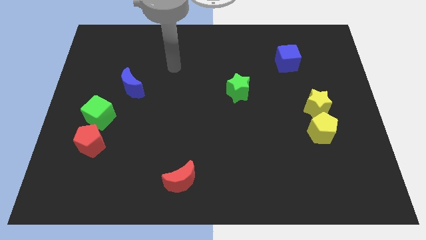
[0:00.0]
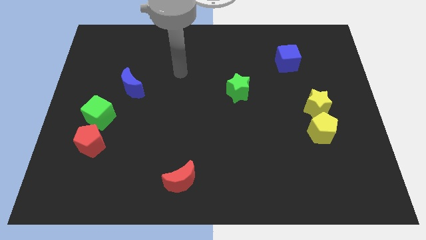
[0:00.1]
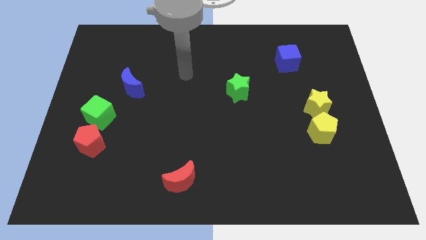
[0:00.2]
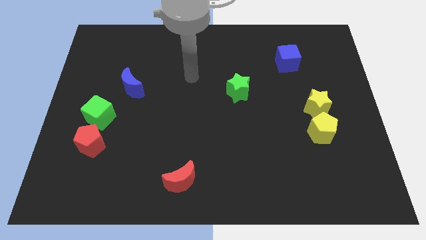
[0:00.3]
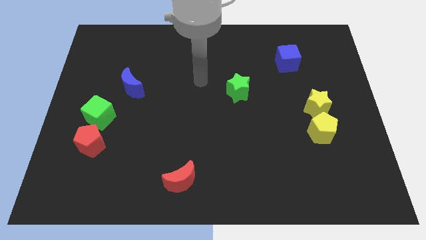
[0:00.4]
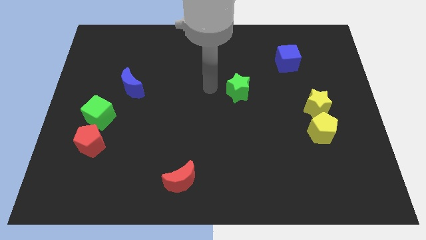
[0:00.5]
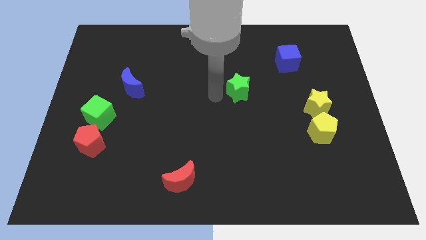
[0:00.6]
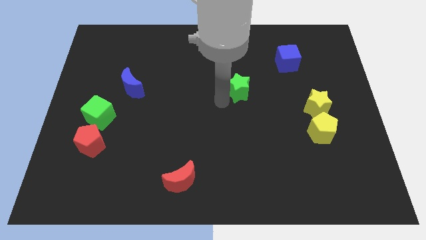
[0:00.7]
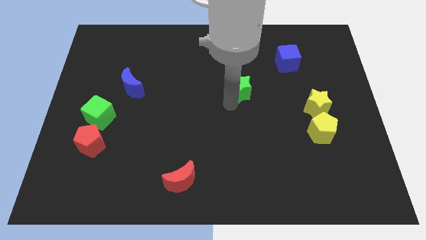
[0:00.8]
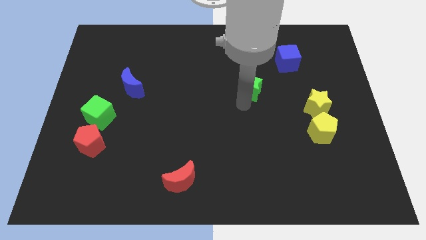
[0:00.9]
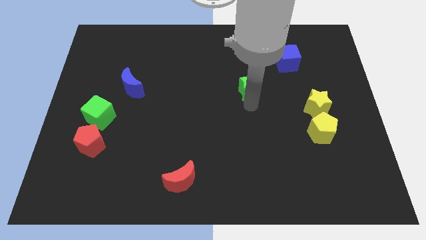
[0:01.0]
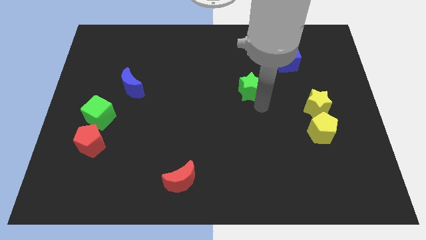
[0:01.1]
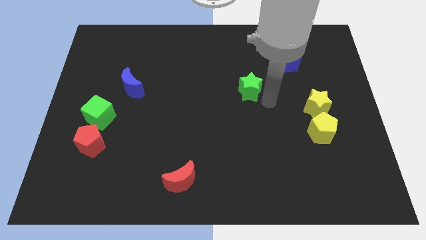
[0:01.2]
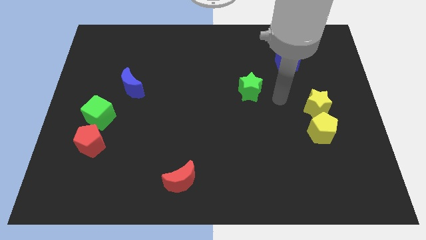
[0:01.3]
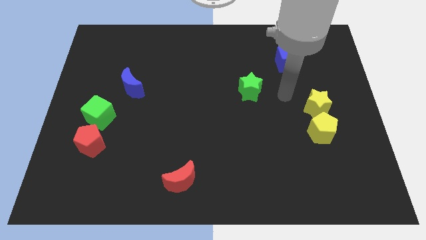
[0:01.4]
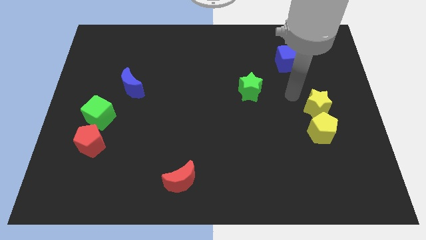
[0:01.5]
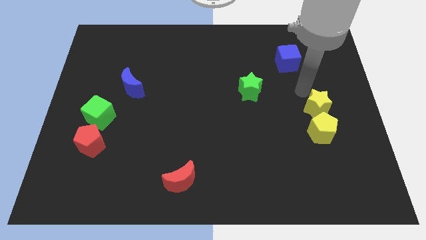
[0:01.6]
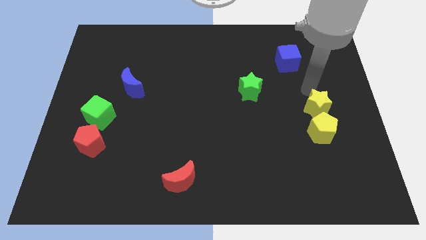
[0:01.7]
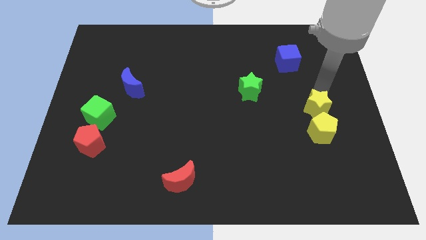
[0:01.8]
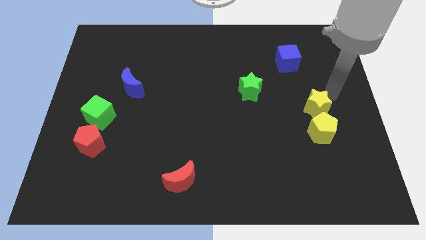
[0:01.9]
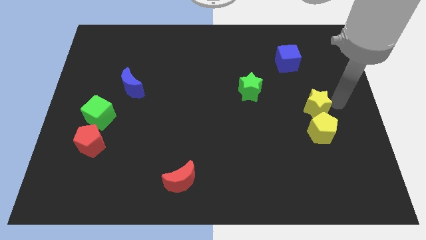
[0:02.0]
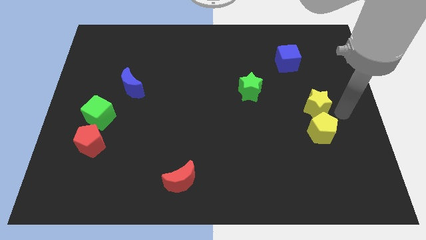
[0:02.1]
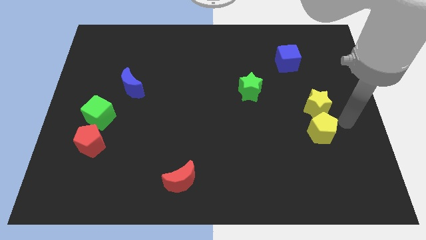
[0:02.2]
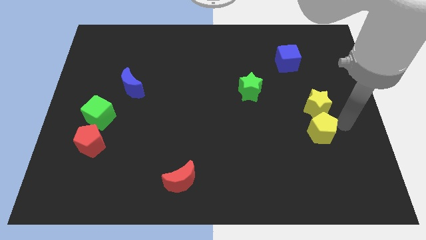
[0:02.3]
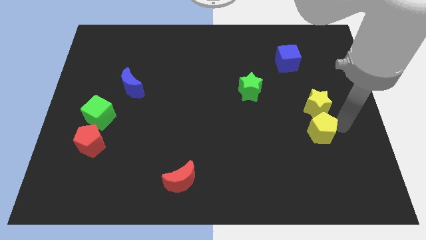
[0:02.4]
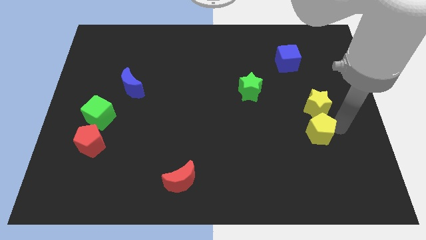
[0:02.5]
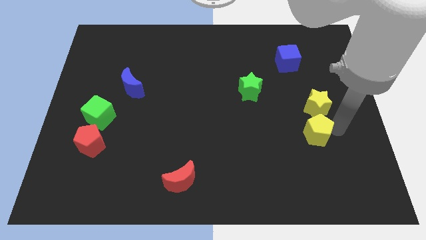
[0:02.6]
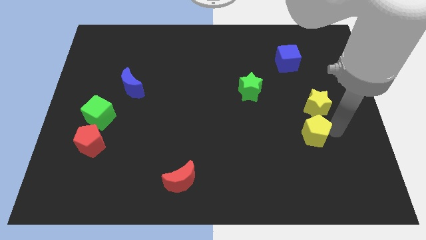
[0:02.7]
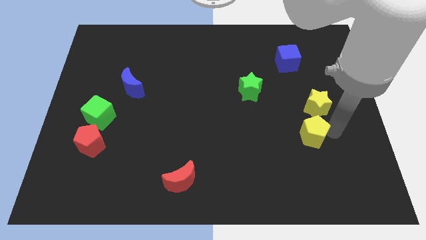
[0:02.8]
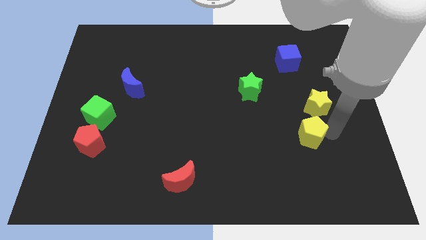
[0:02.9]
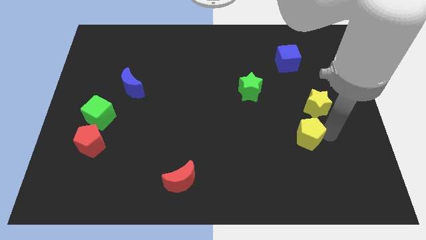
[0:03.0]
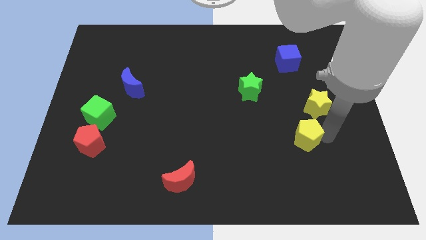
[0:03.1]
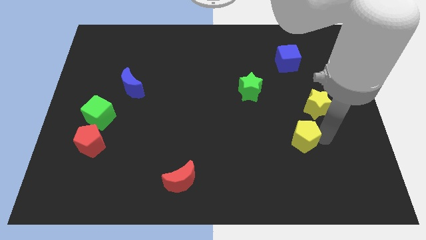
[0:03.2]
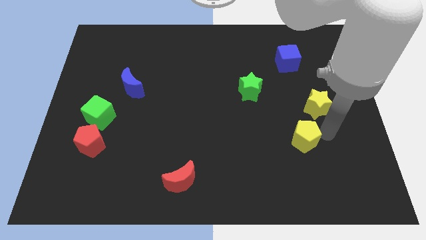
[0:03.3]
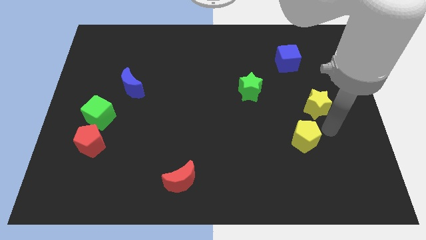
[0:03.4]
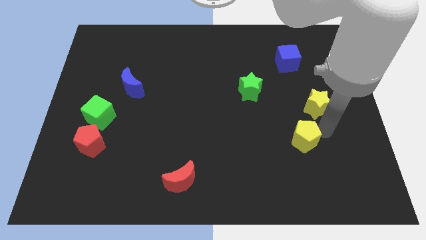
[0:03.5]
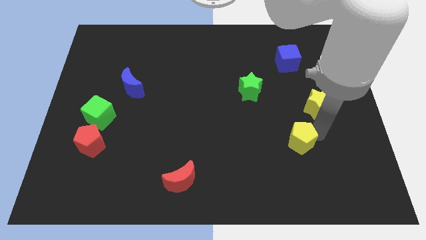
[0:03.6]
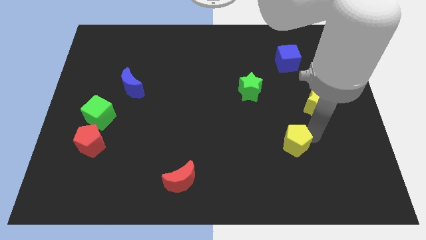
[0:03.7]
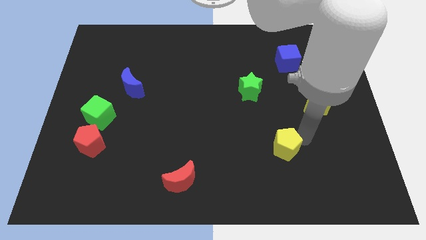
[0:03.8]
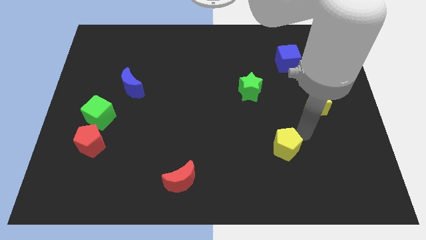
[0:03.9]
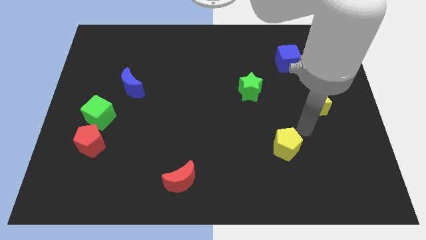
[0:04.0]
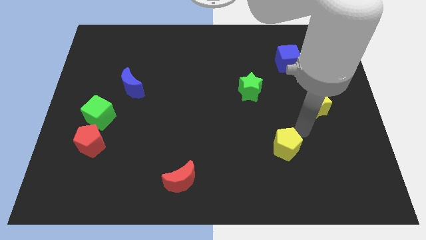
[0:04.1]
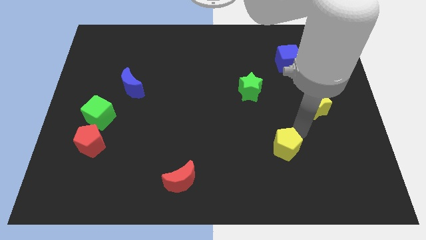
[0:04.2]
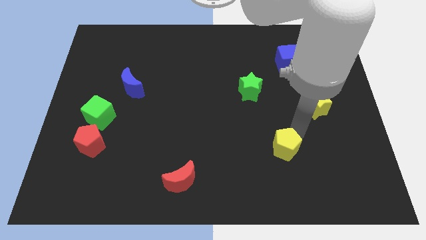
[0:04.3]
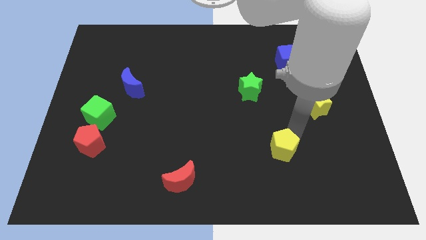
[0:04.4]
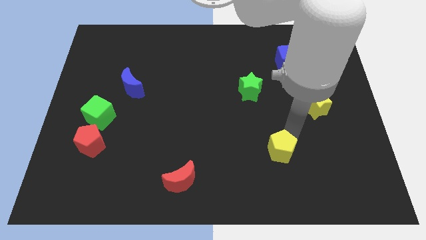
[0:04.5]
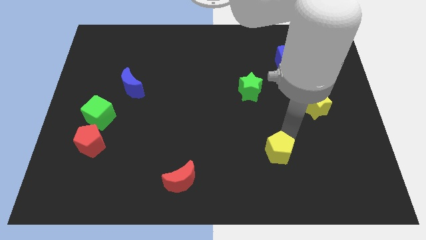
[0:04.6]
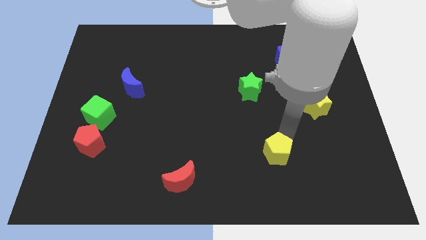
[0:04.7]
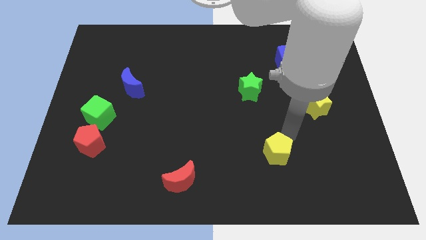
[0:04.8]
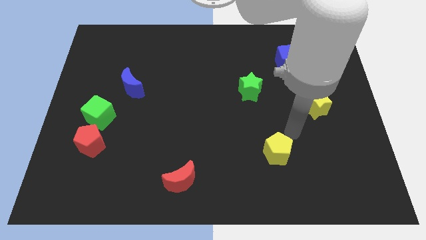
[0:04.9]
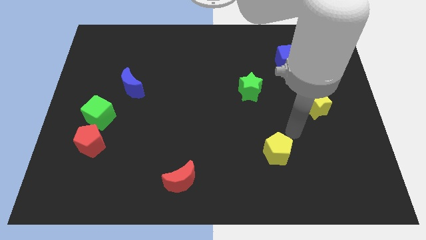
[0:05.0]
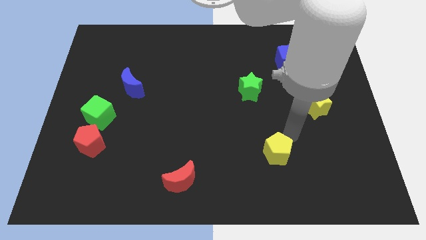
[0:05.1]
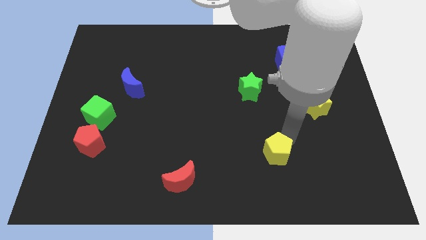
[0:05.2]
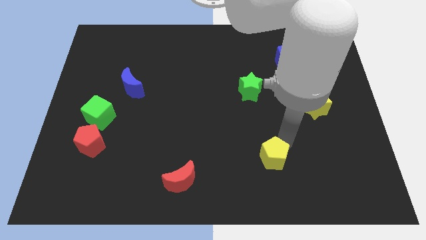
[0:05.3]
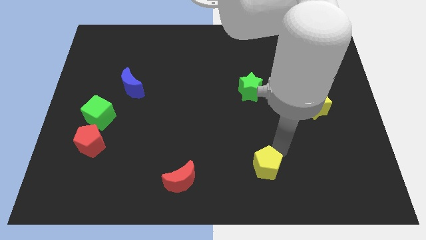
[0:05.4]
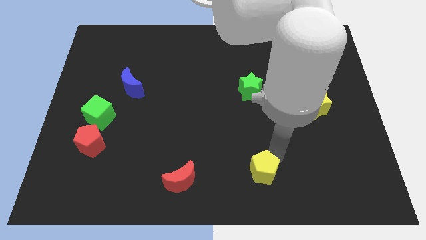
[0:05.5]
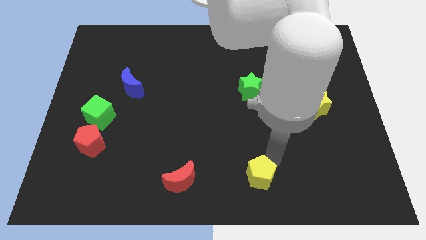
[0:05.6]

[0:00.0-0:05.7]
put the yellow pentagon to the bottom

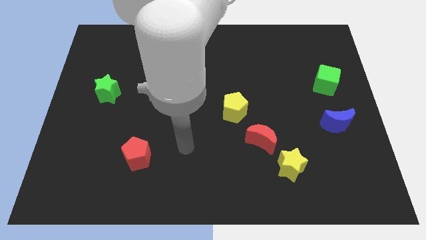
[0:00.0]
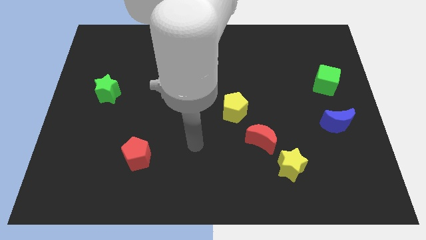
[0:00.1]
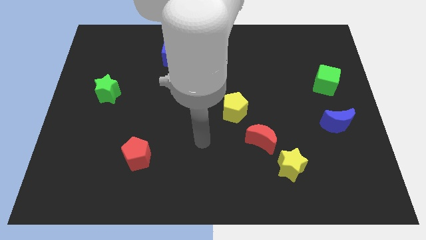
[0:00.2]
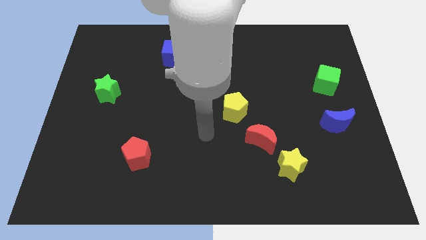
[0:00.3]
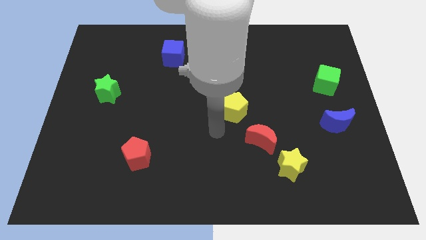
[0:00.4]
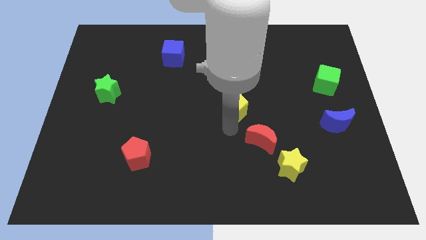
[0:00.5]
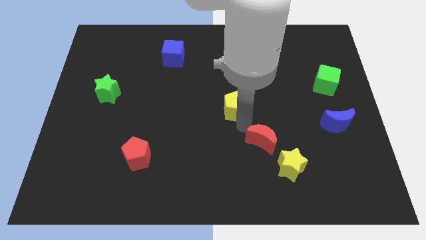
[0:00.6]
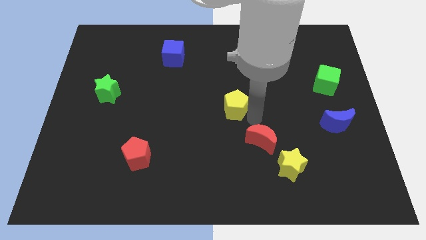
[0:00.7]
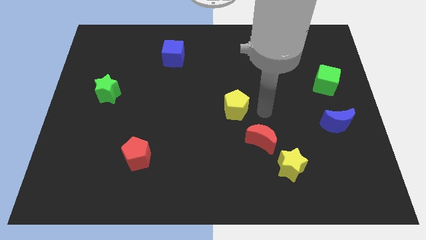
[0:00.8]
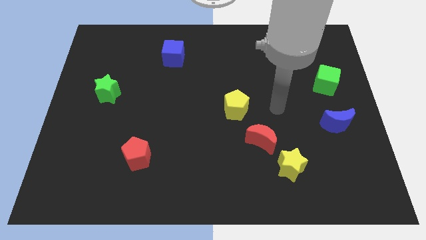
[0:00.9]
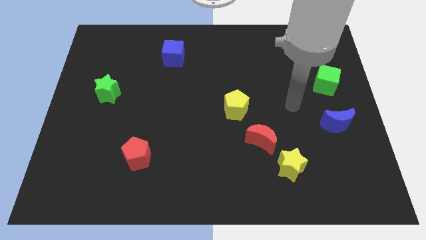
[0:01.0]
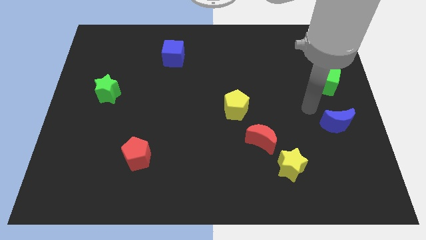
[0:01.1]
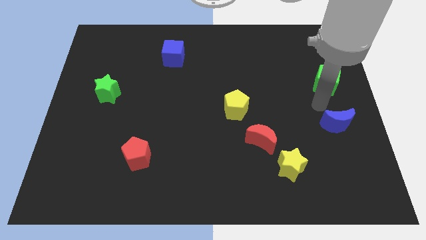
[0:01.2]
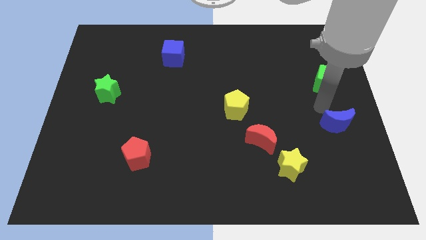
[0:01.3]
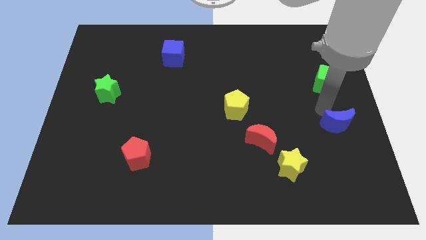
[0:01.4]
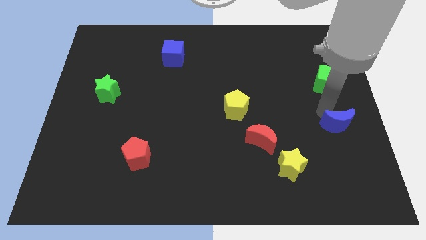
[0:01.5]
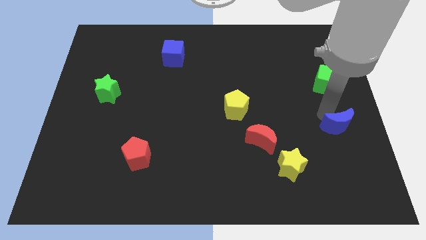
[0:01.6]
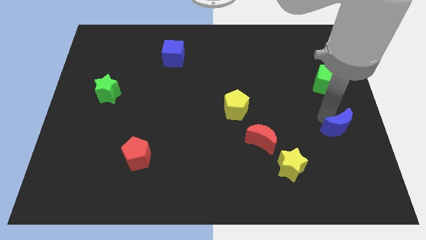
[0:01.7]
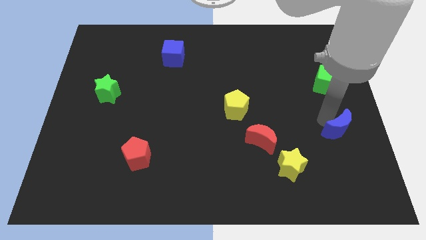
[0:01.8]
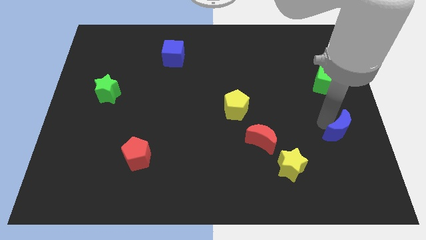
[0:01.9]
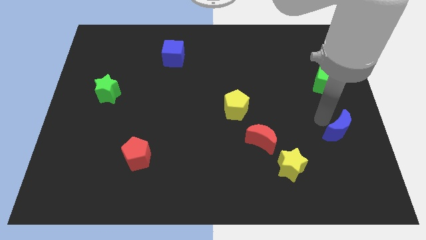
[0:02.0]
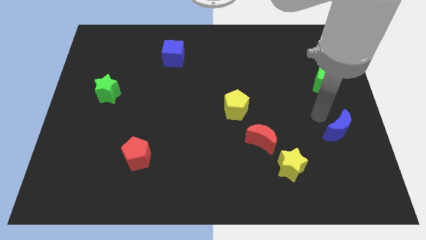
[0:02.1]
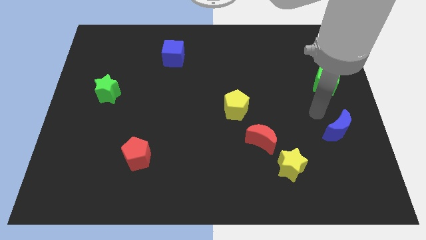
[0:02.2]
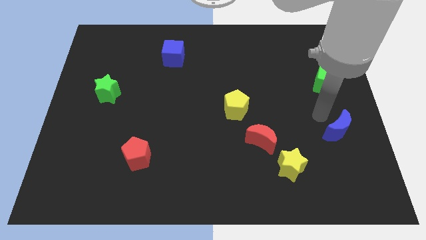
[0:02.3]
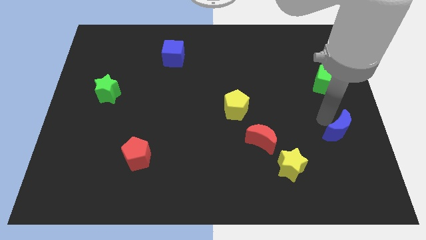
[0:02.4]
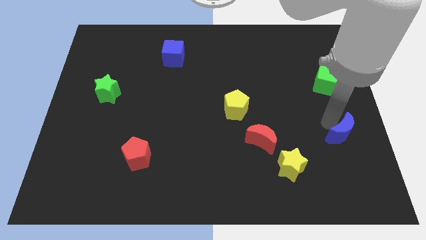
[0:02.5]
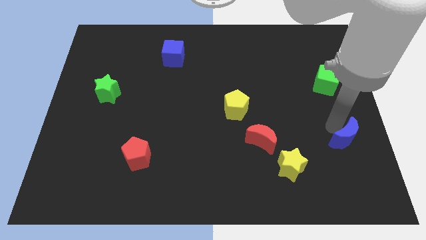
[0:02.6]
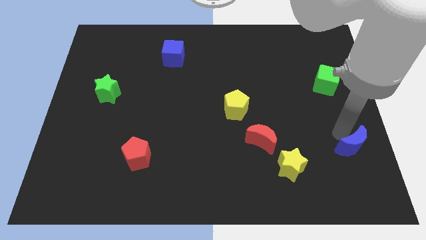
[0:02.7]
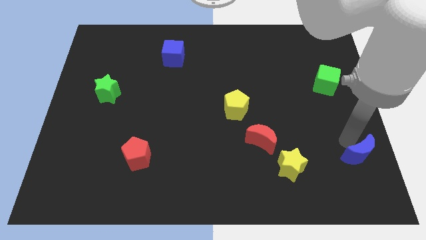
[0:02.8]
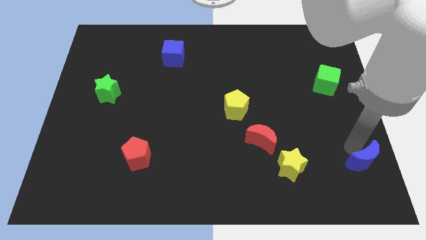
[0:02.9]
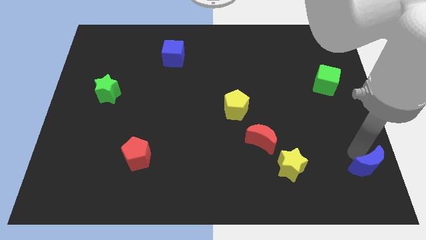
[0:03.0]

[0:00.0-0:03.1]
push the blue moon to the bottom right corner
